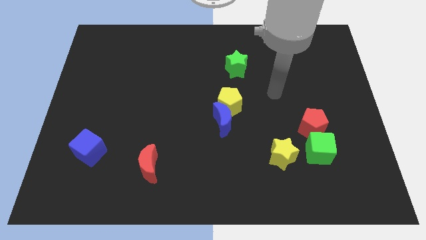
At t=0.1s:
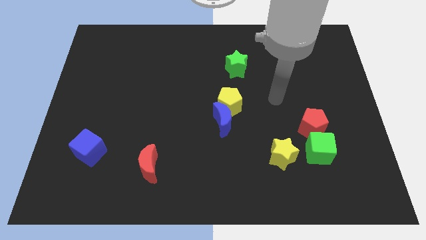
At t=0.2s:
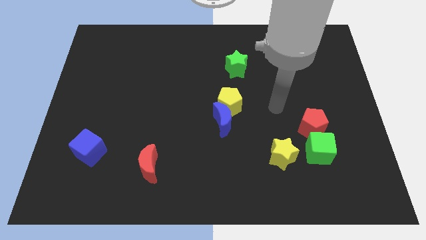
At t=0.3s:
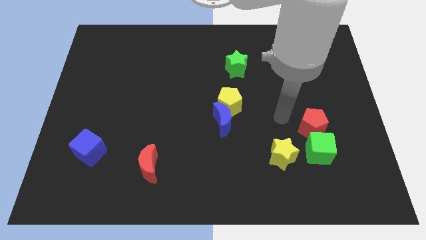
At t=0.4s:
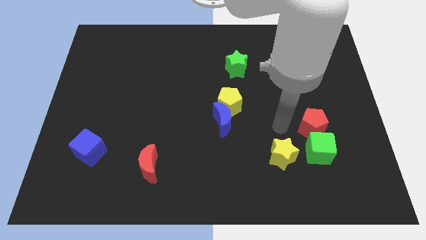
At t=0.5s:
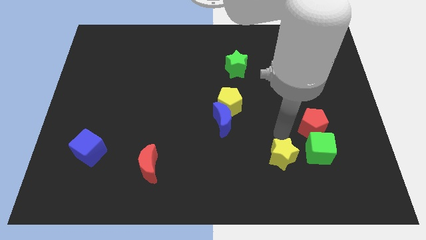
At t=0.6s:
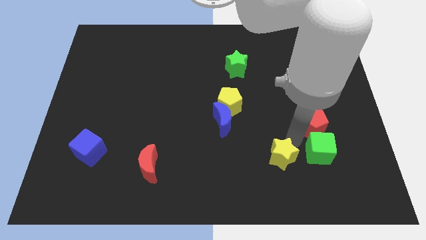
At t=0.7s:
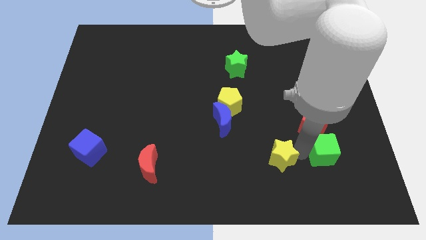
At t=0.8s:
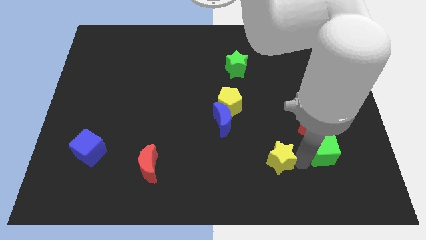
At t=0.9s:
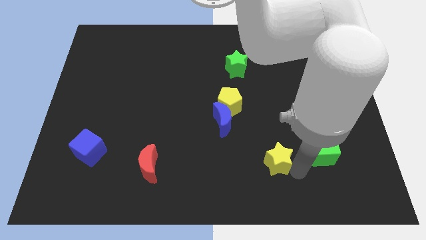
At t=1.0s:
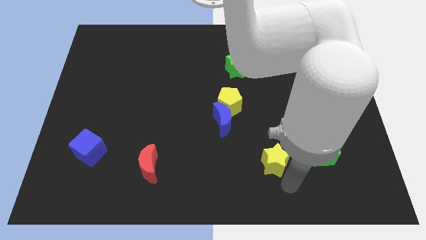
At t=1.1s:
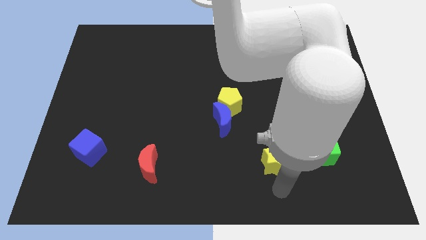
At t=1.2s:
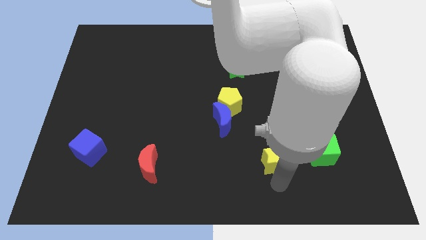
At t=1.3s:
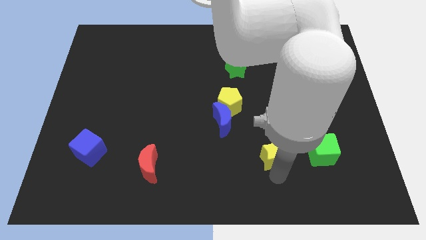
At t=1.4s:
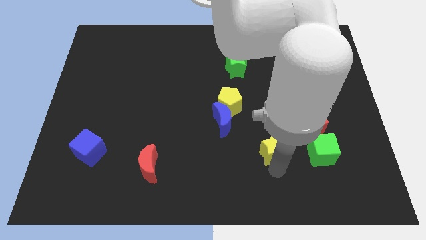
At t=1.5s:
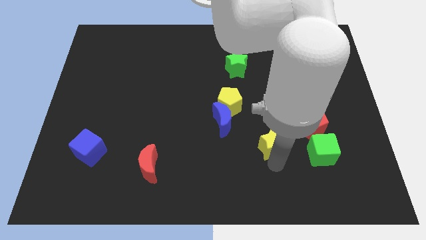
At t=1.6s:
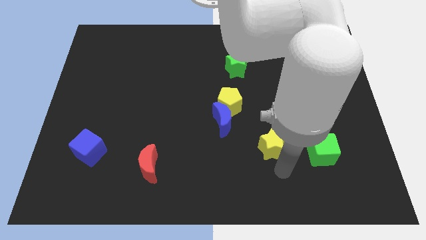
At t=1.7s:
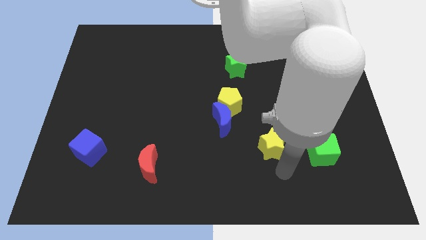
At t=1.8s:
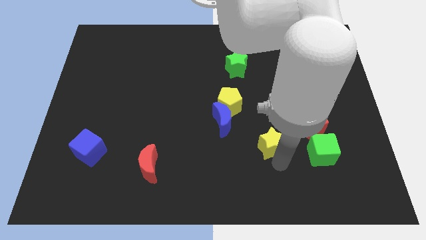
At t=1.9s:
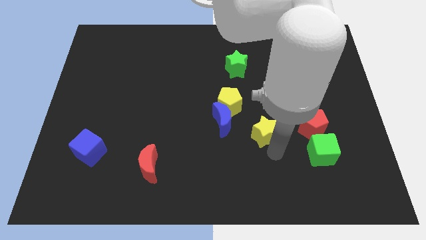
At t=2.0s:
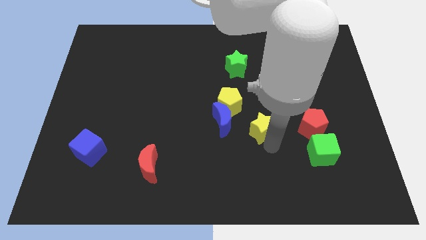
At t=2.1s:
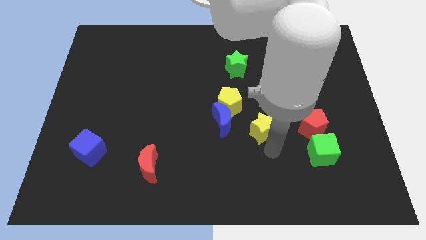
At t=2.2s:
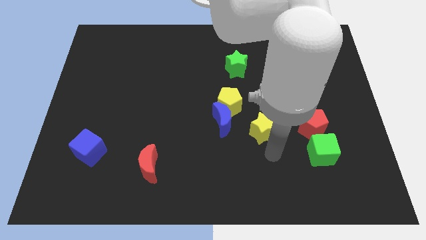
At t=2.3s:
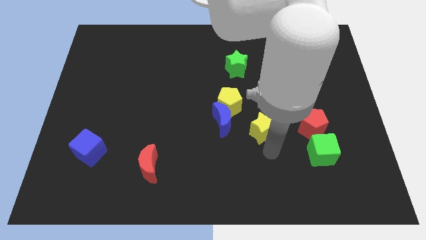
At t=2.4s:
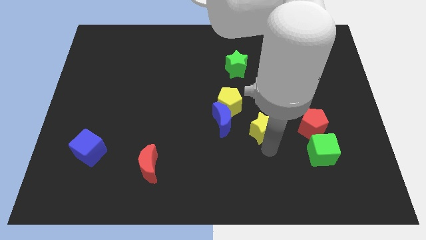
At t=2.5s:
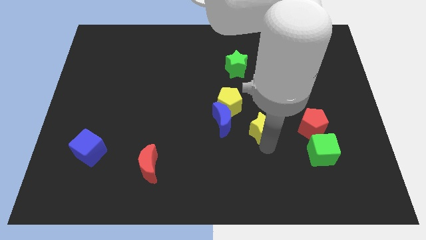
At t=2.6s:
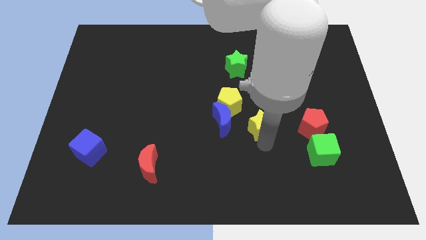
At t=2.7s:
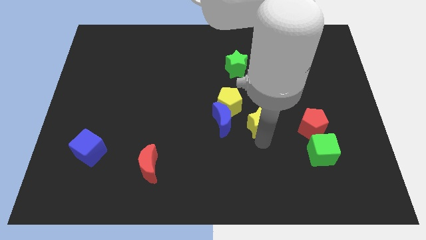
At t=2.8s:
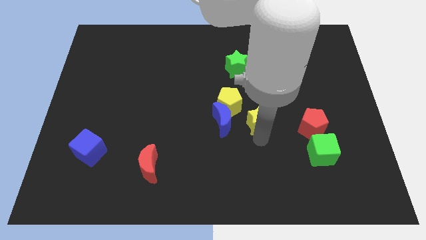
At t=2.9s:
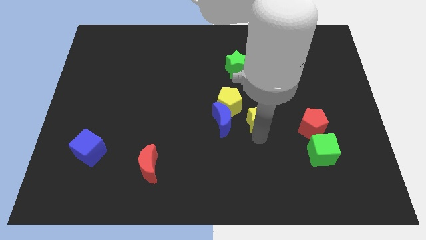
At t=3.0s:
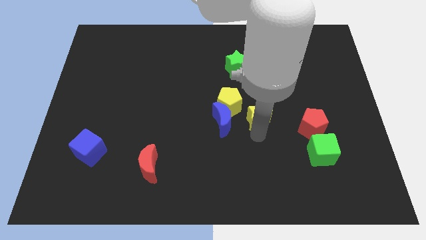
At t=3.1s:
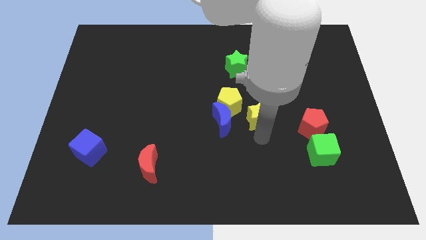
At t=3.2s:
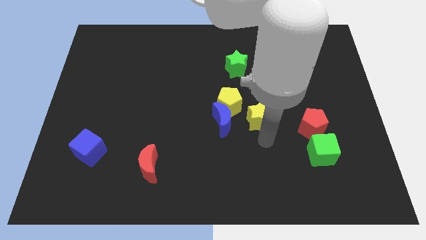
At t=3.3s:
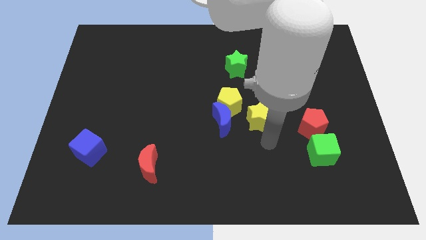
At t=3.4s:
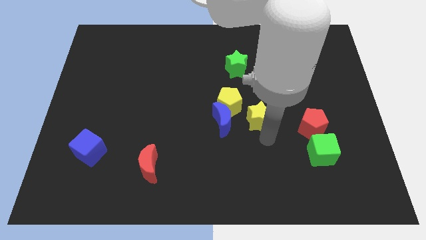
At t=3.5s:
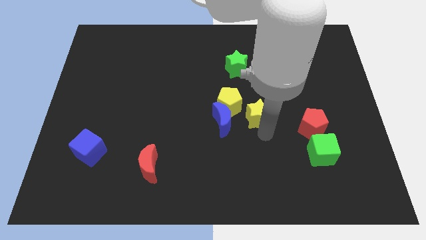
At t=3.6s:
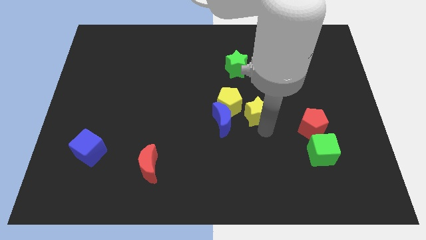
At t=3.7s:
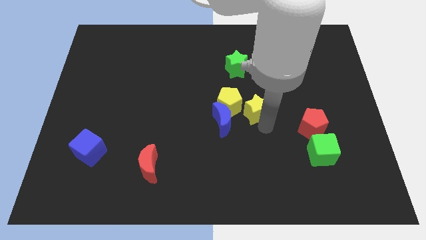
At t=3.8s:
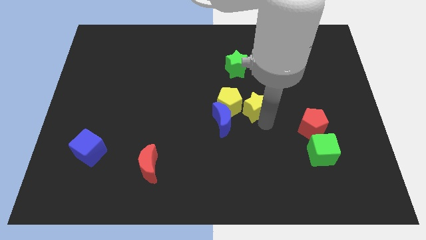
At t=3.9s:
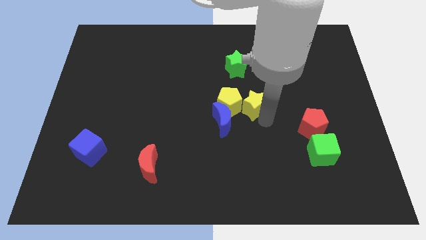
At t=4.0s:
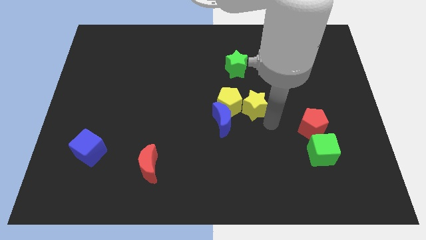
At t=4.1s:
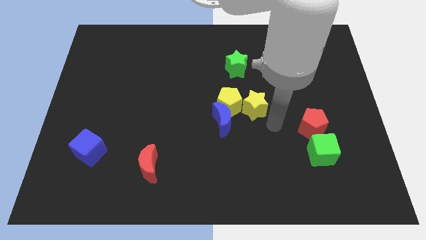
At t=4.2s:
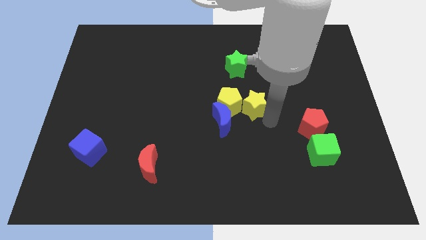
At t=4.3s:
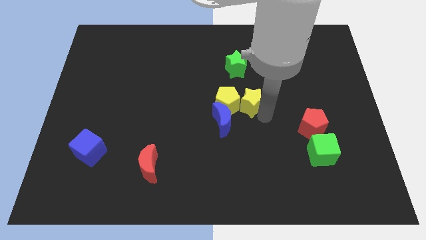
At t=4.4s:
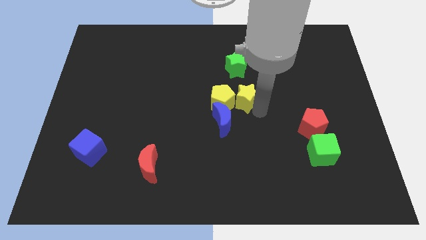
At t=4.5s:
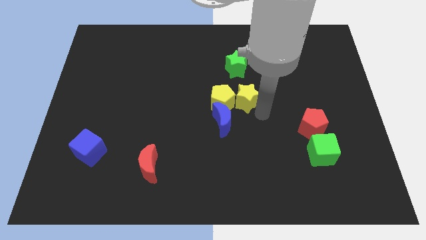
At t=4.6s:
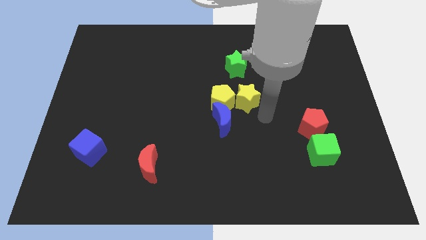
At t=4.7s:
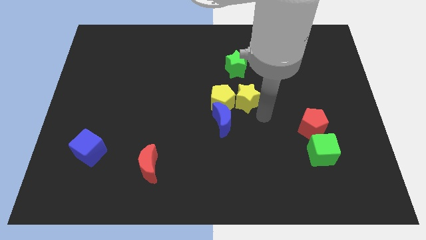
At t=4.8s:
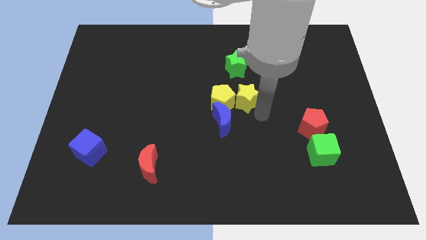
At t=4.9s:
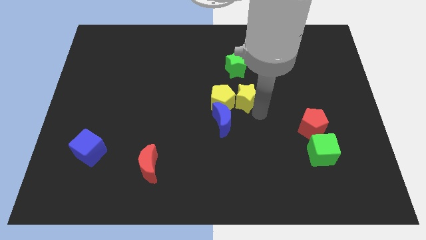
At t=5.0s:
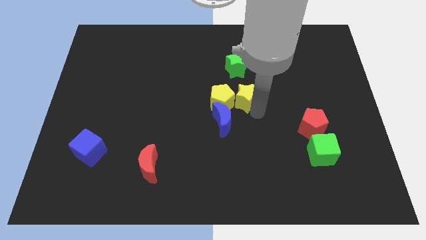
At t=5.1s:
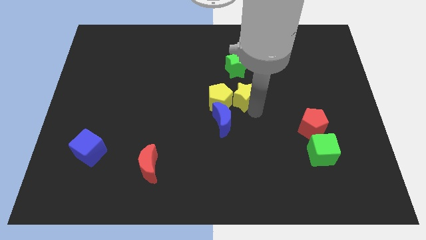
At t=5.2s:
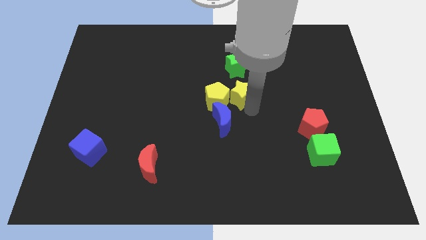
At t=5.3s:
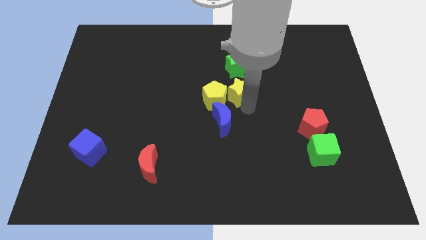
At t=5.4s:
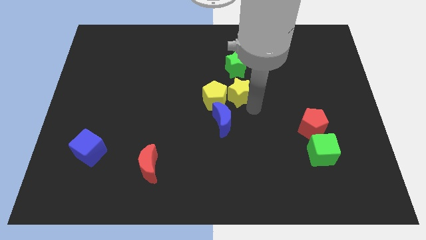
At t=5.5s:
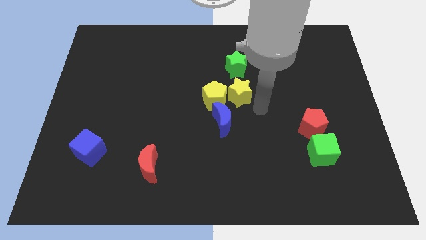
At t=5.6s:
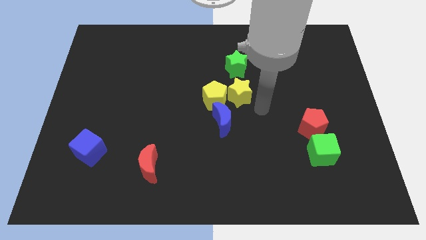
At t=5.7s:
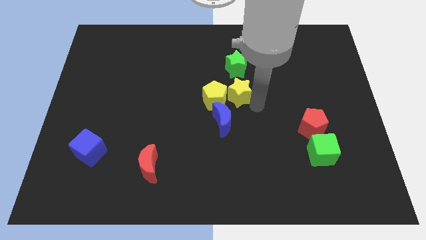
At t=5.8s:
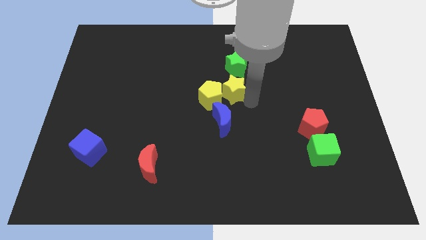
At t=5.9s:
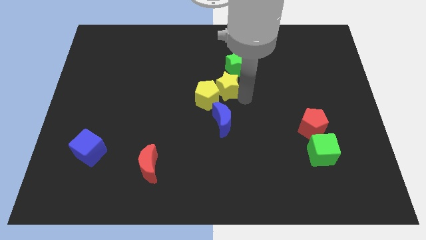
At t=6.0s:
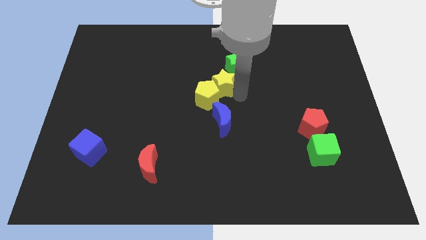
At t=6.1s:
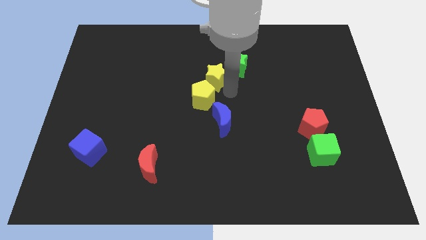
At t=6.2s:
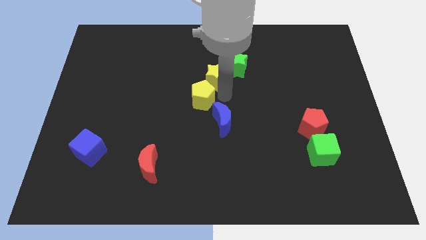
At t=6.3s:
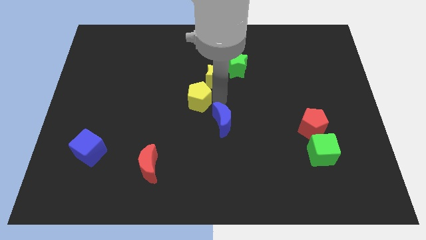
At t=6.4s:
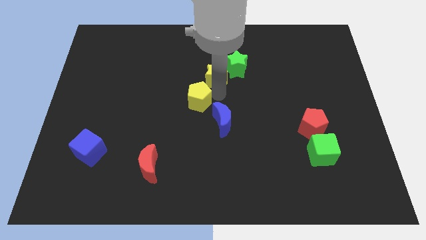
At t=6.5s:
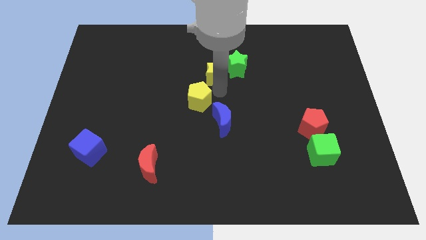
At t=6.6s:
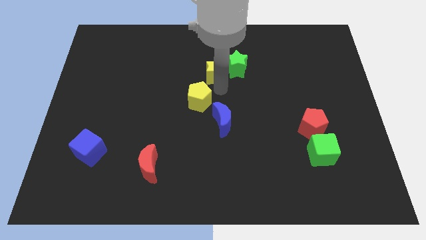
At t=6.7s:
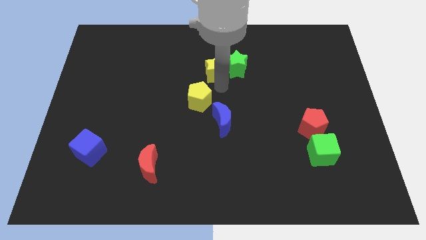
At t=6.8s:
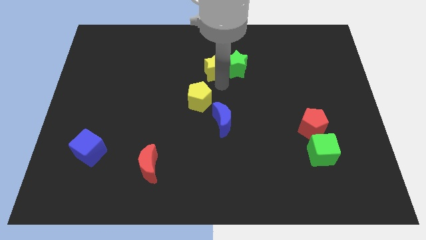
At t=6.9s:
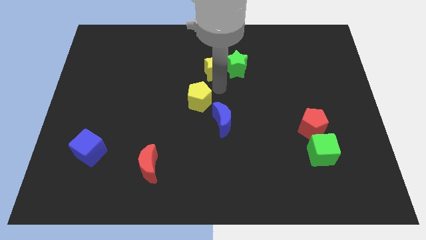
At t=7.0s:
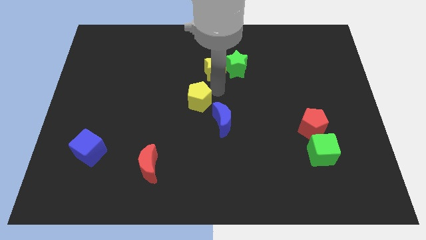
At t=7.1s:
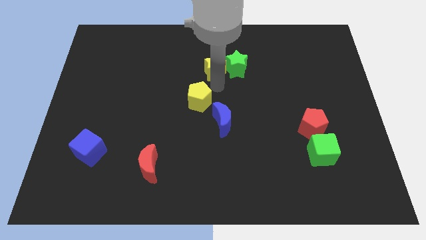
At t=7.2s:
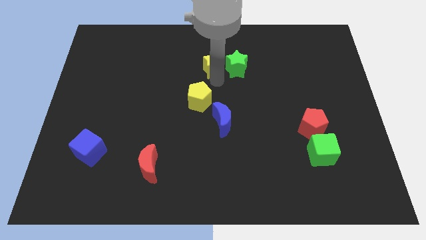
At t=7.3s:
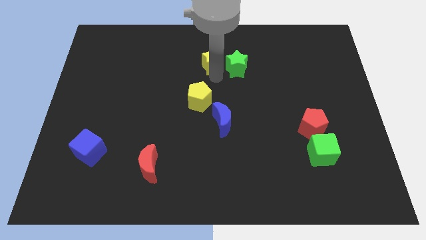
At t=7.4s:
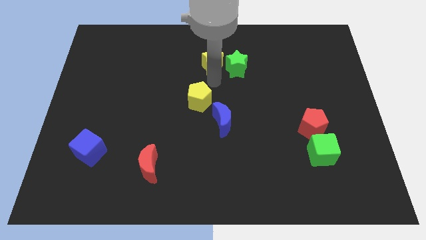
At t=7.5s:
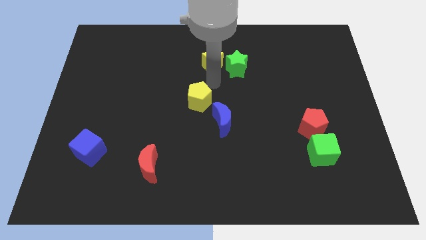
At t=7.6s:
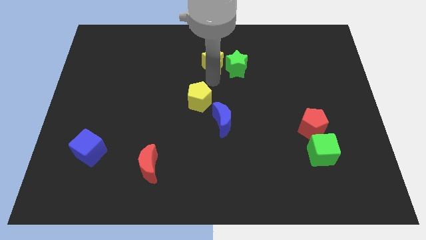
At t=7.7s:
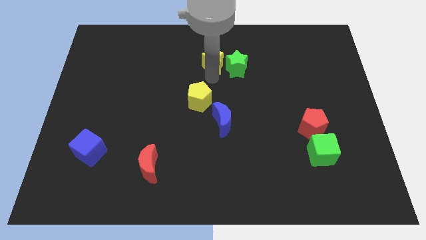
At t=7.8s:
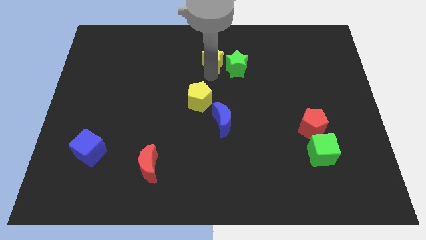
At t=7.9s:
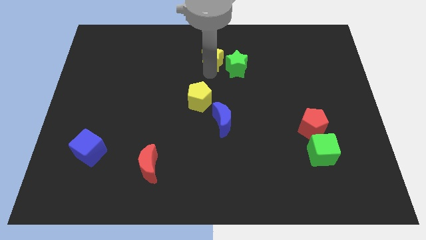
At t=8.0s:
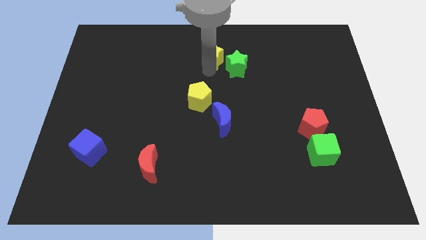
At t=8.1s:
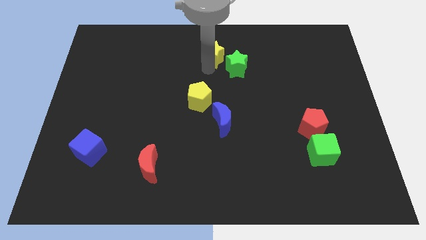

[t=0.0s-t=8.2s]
slide the yellow star to the towards your base
